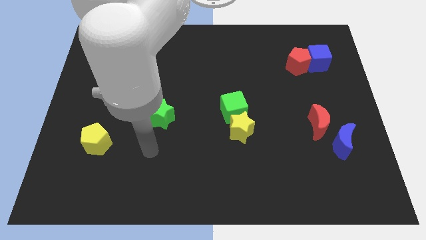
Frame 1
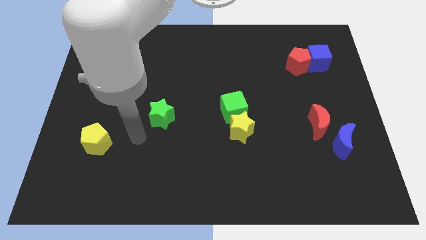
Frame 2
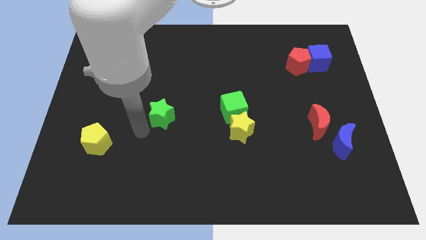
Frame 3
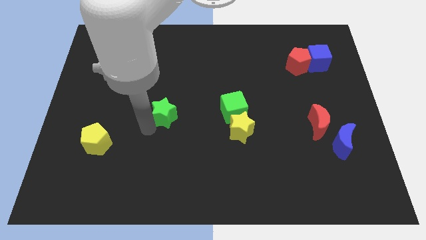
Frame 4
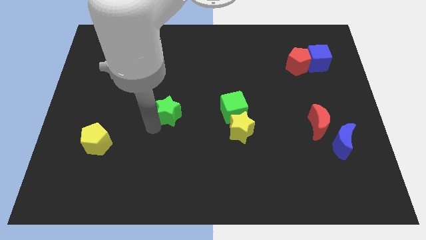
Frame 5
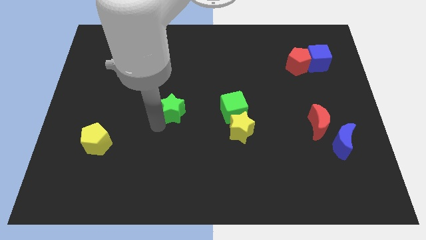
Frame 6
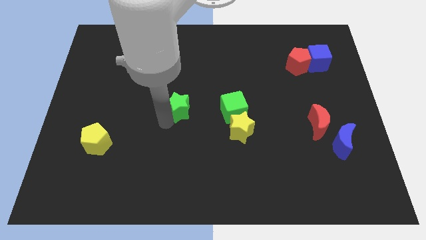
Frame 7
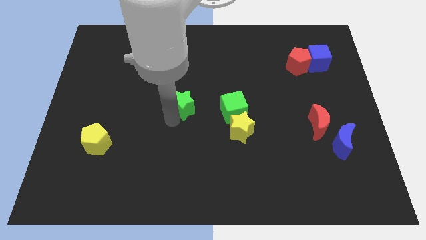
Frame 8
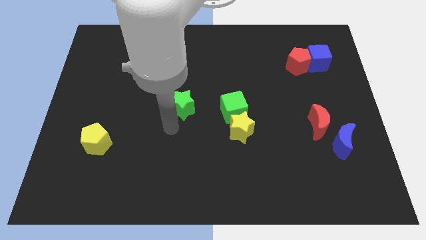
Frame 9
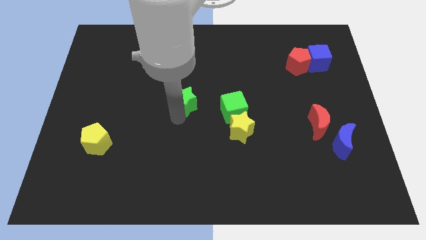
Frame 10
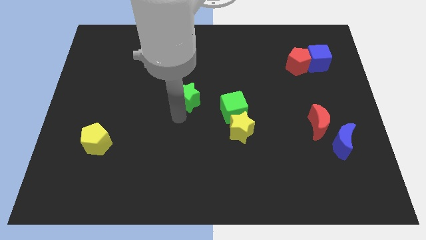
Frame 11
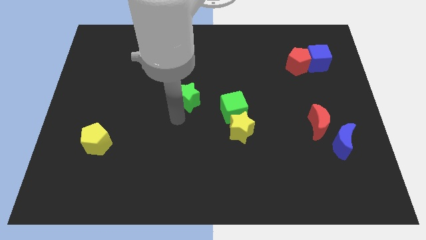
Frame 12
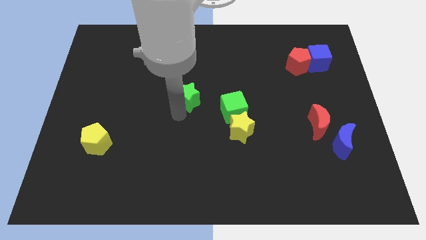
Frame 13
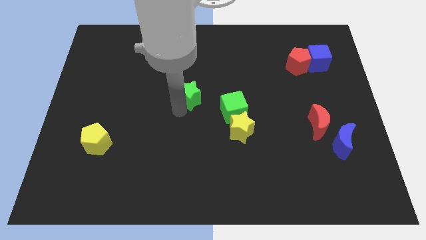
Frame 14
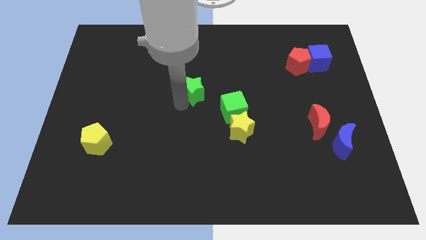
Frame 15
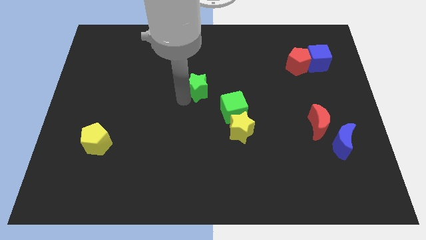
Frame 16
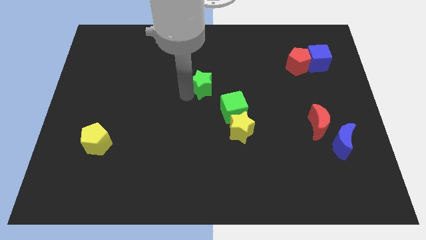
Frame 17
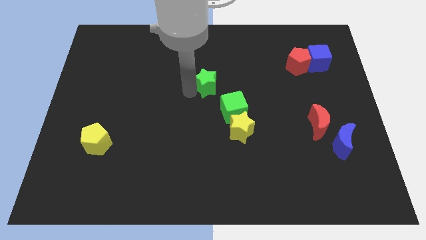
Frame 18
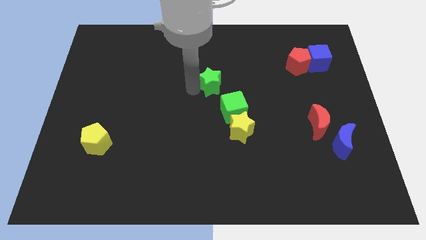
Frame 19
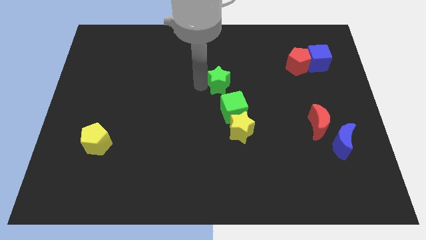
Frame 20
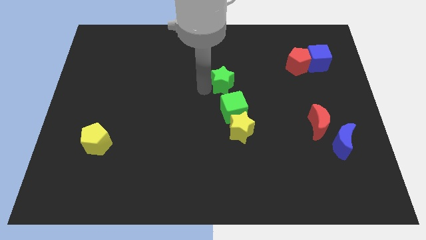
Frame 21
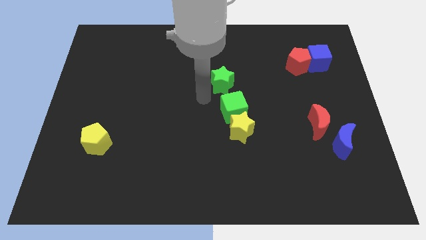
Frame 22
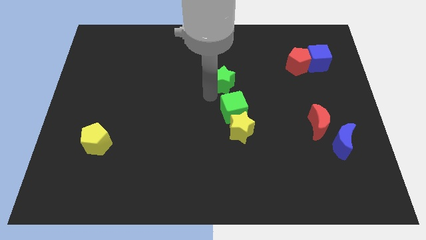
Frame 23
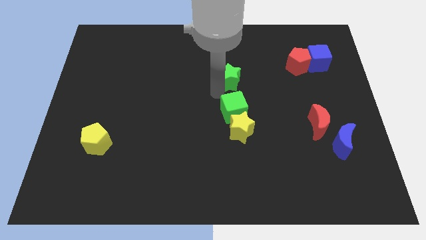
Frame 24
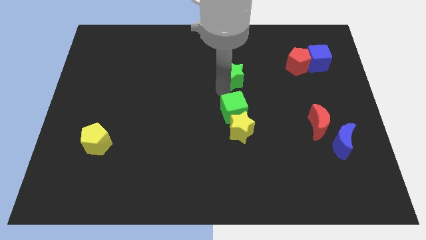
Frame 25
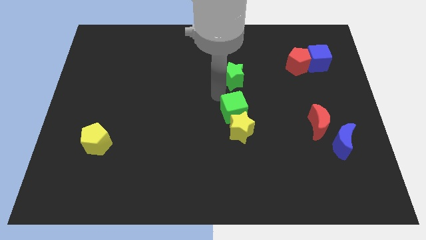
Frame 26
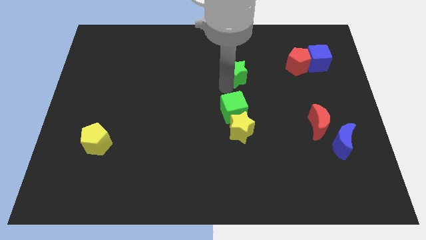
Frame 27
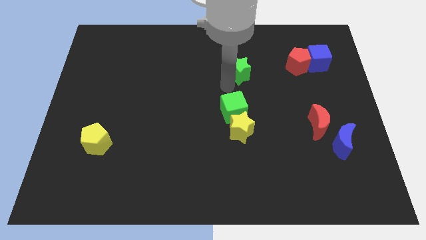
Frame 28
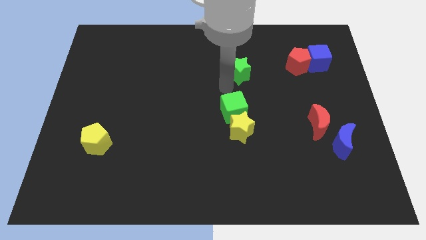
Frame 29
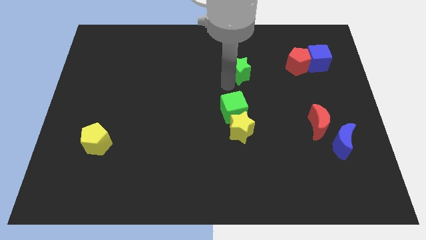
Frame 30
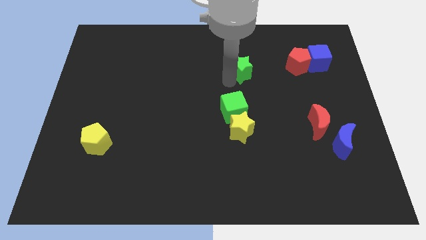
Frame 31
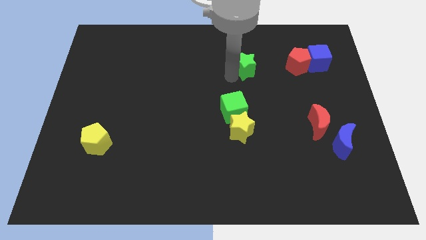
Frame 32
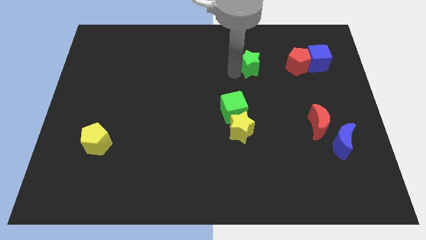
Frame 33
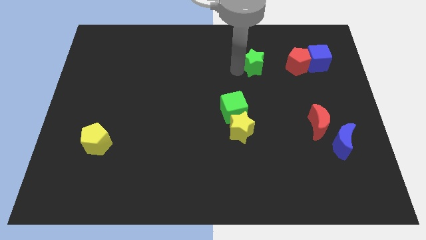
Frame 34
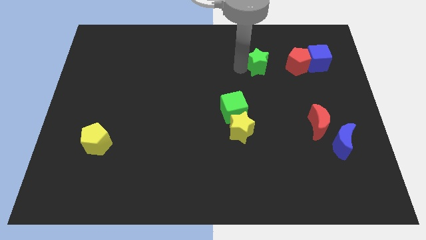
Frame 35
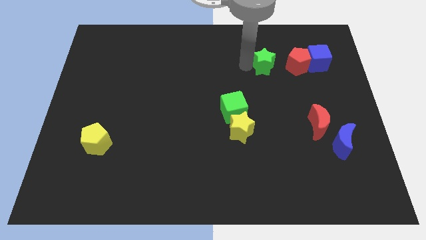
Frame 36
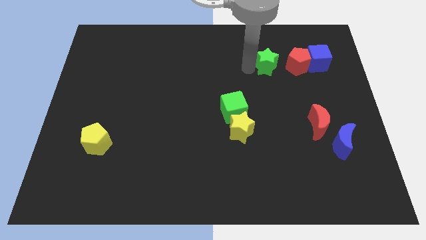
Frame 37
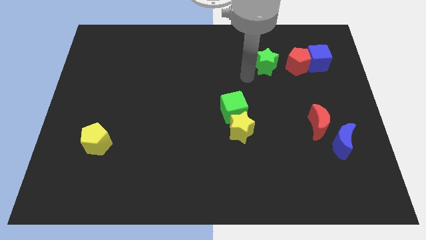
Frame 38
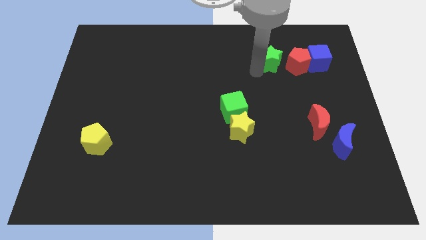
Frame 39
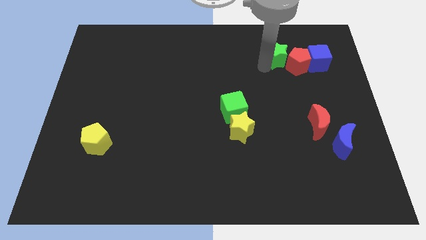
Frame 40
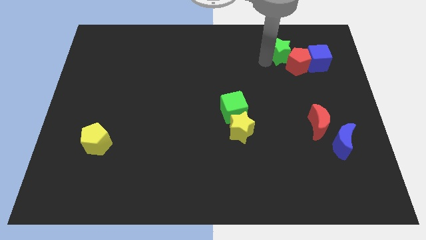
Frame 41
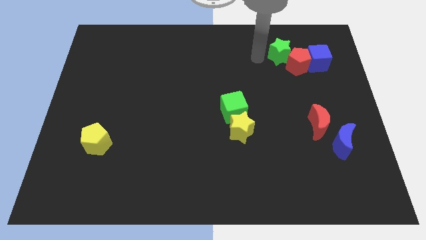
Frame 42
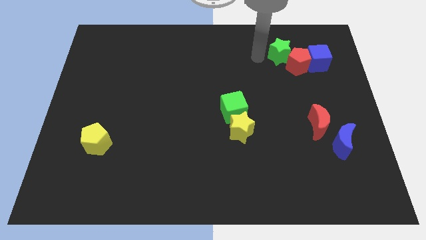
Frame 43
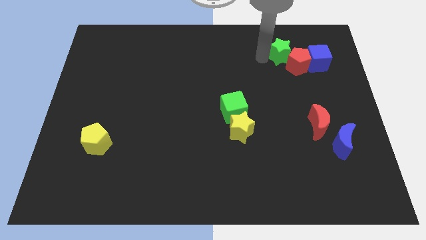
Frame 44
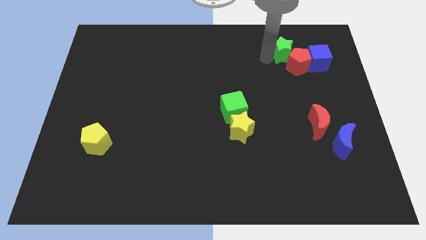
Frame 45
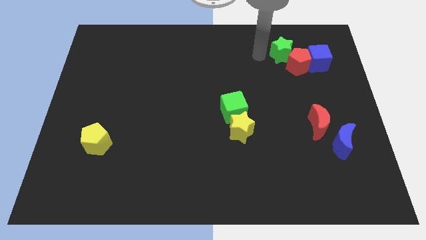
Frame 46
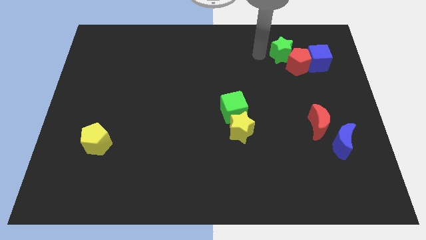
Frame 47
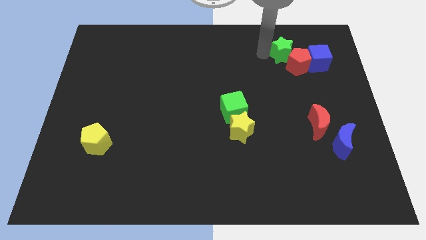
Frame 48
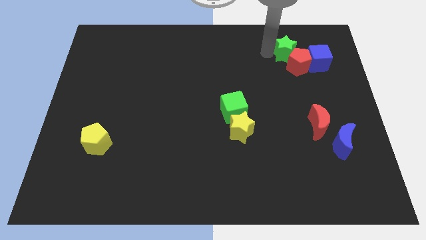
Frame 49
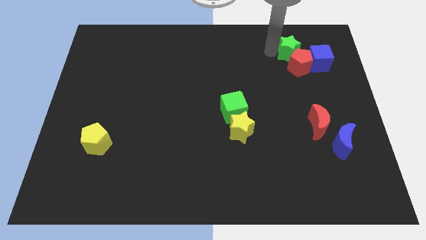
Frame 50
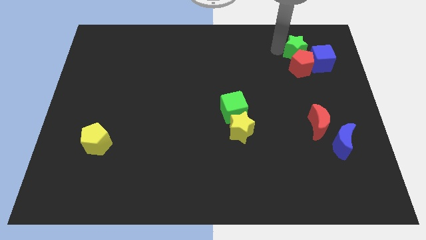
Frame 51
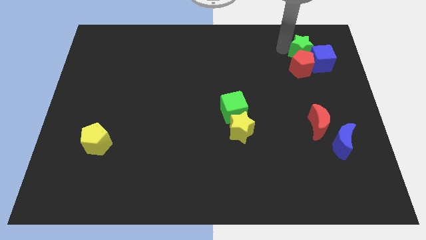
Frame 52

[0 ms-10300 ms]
push the green star close to the blue cube

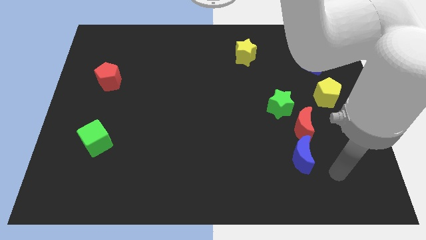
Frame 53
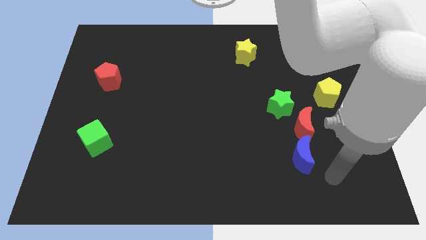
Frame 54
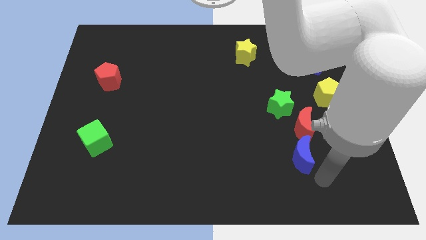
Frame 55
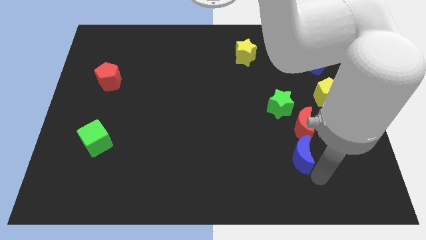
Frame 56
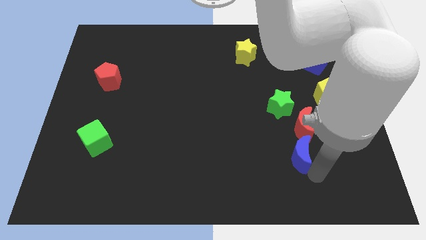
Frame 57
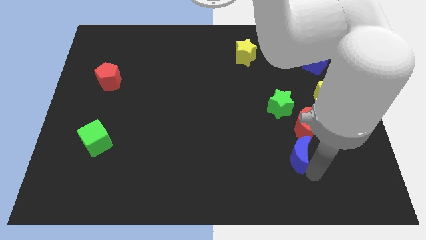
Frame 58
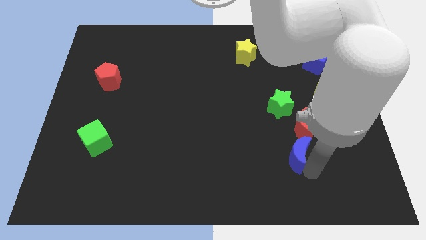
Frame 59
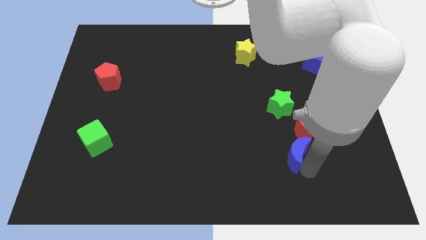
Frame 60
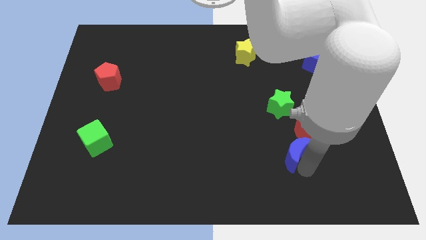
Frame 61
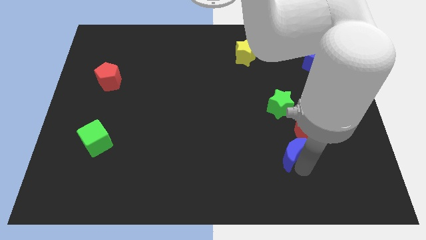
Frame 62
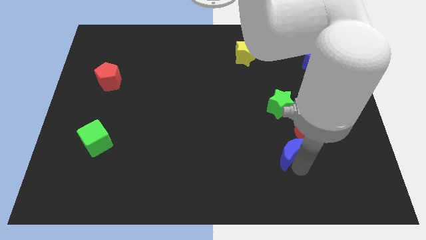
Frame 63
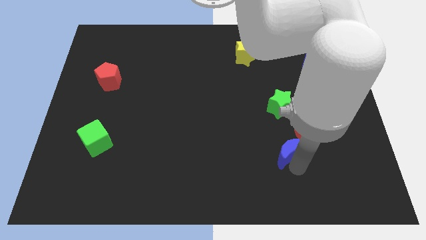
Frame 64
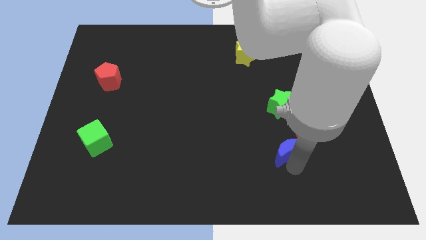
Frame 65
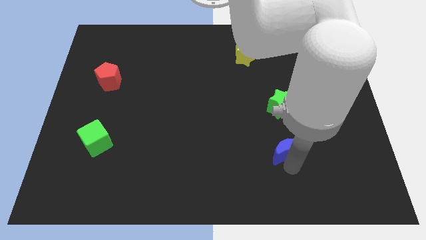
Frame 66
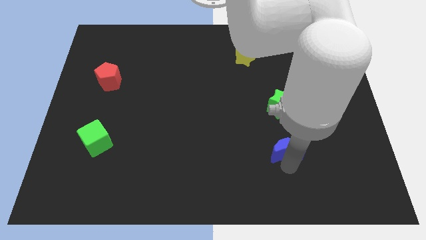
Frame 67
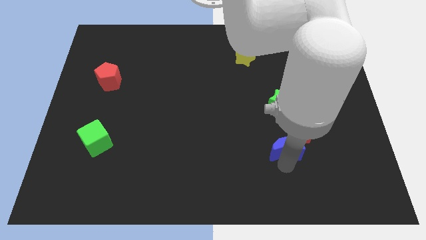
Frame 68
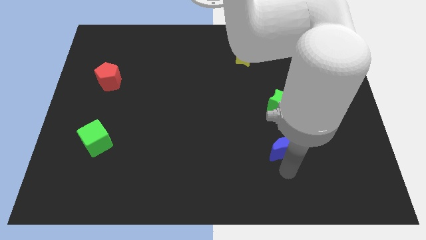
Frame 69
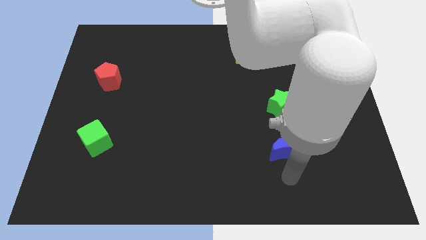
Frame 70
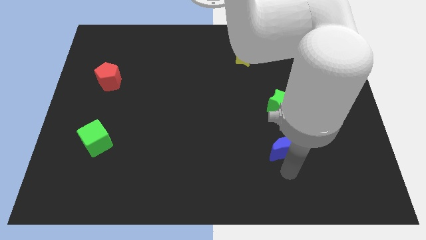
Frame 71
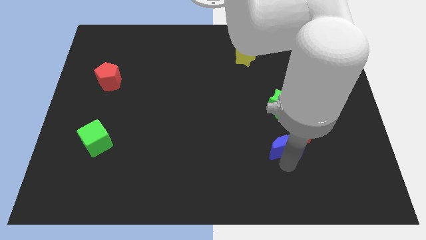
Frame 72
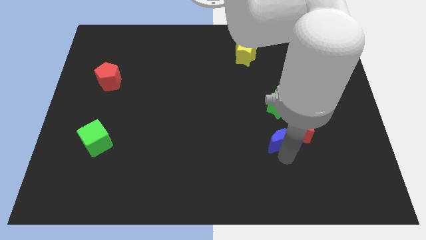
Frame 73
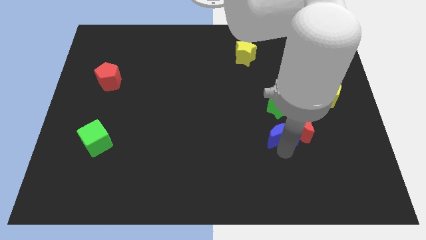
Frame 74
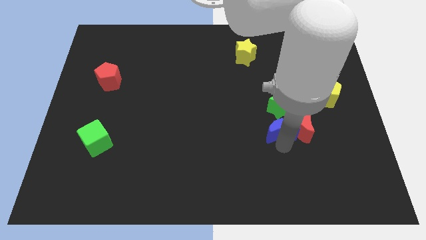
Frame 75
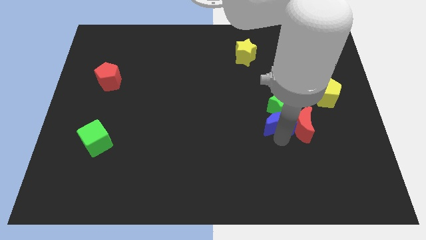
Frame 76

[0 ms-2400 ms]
put the blue moon next to the green star
